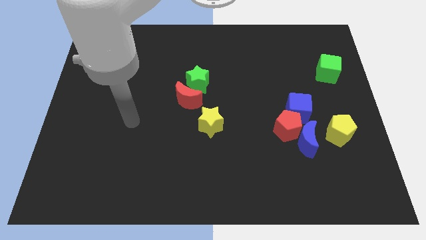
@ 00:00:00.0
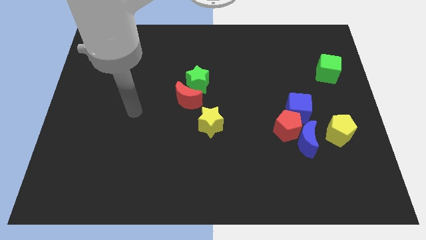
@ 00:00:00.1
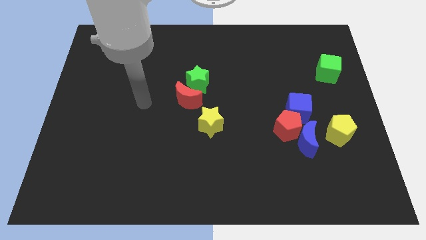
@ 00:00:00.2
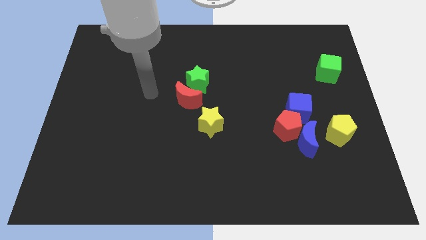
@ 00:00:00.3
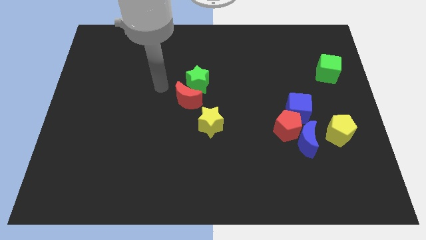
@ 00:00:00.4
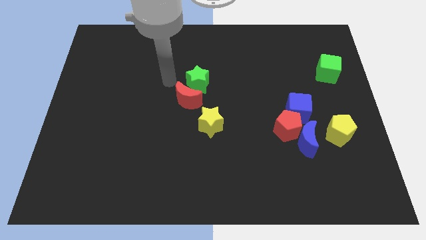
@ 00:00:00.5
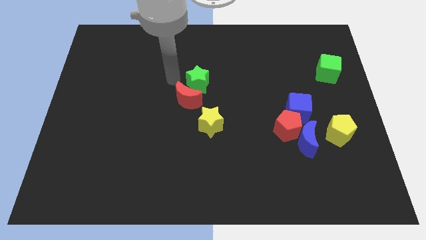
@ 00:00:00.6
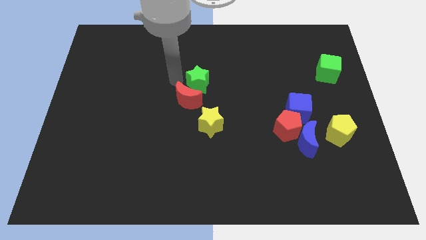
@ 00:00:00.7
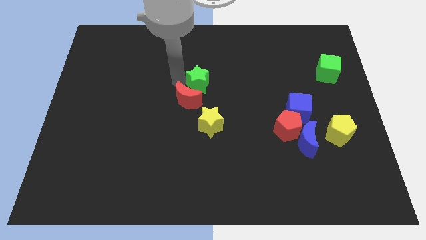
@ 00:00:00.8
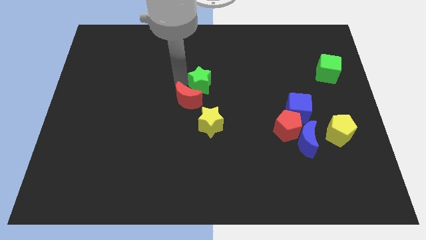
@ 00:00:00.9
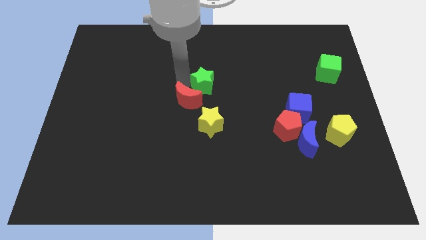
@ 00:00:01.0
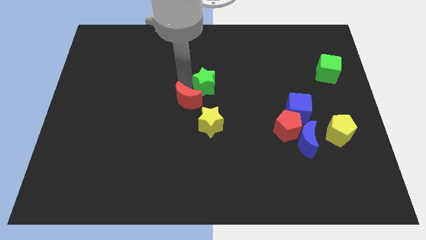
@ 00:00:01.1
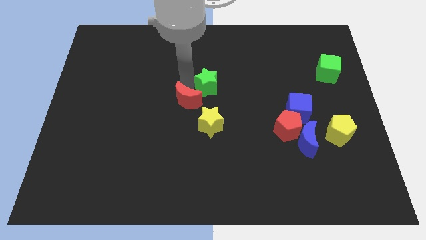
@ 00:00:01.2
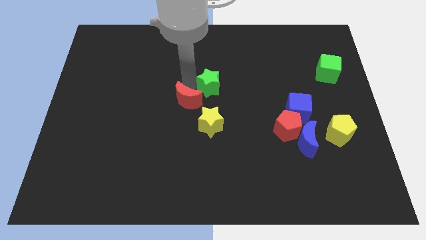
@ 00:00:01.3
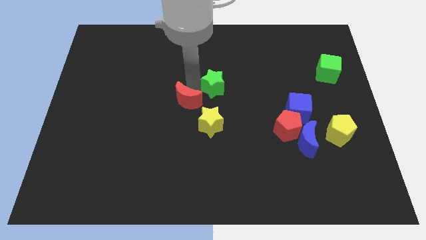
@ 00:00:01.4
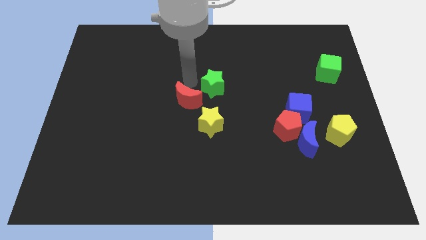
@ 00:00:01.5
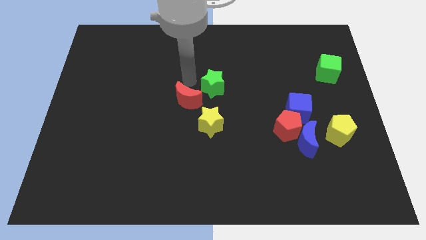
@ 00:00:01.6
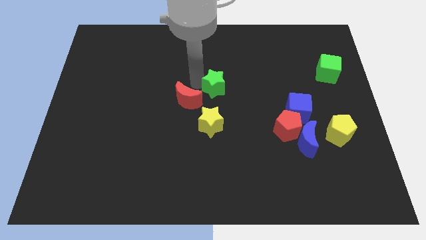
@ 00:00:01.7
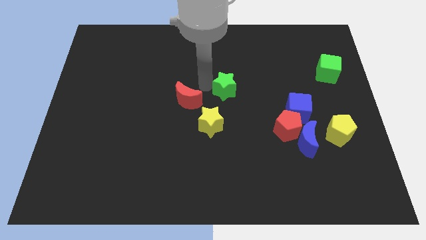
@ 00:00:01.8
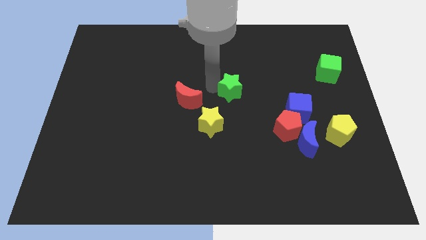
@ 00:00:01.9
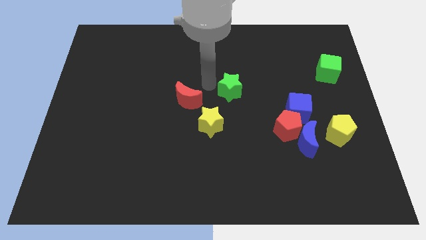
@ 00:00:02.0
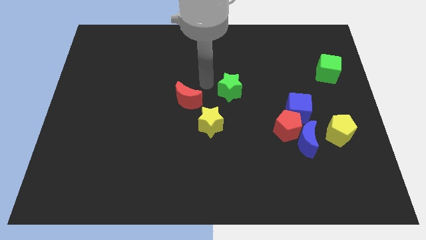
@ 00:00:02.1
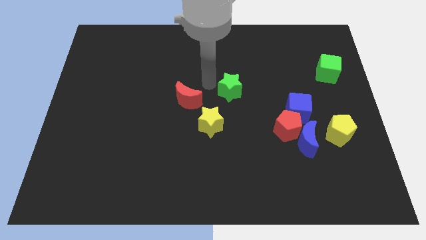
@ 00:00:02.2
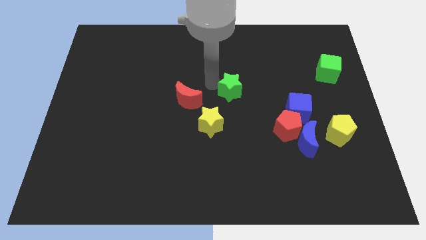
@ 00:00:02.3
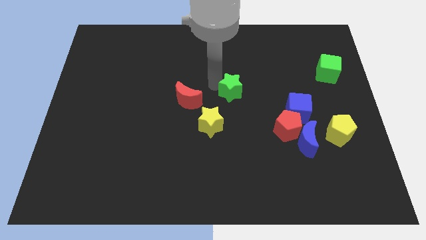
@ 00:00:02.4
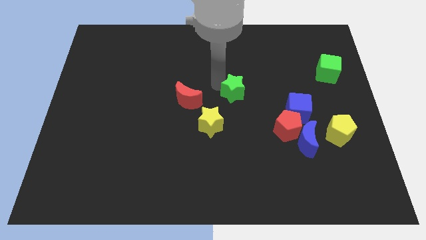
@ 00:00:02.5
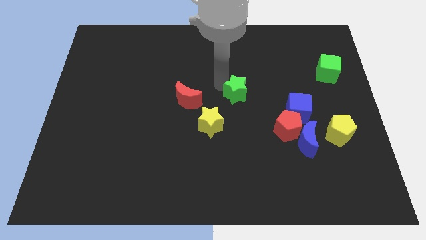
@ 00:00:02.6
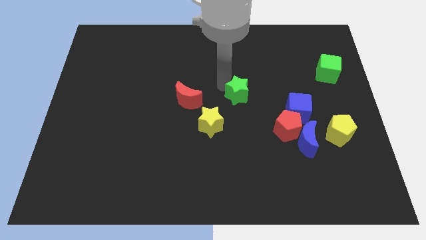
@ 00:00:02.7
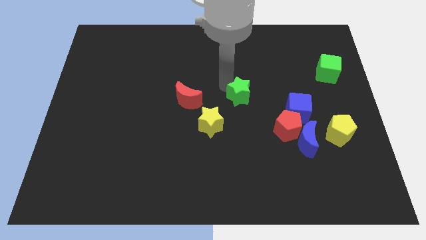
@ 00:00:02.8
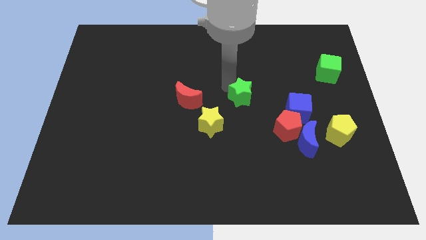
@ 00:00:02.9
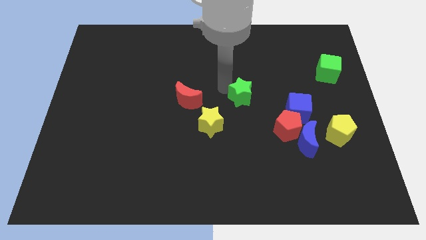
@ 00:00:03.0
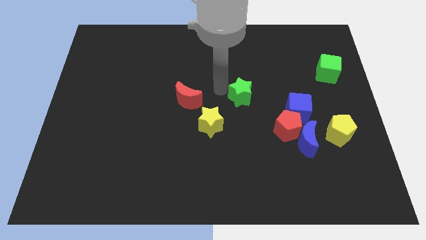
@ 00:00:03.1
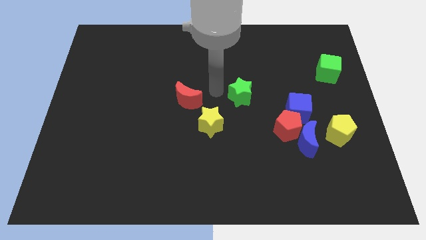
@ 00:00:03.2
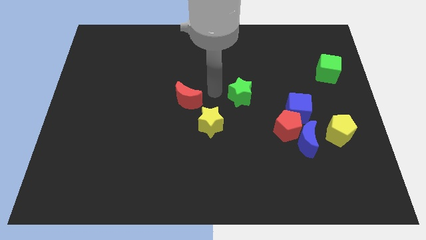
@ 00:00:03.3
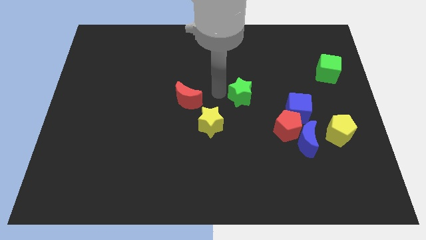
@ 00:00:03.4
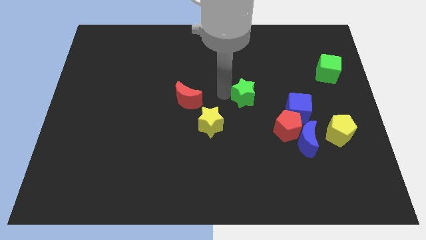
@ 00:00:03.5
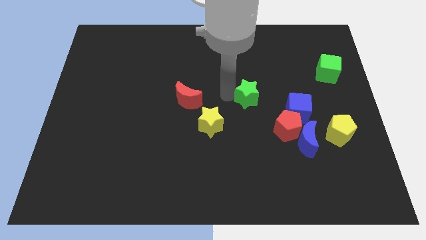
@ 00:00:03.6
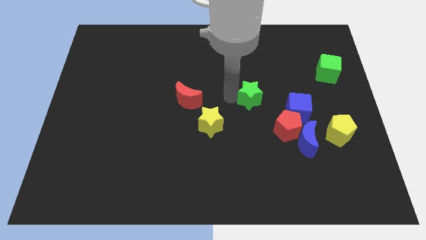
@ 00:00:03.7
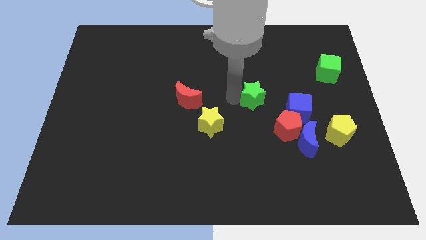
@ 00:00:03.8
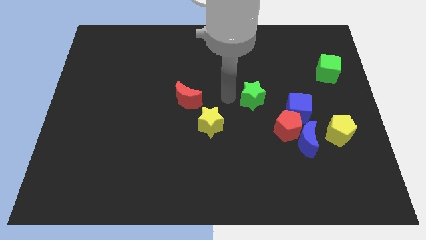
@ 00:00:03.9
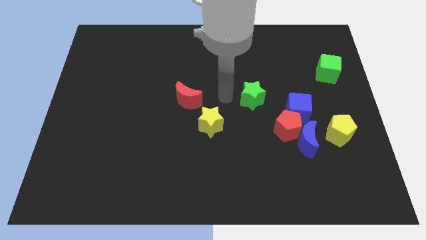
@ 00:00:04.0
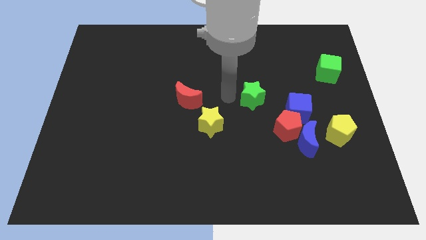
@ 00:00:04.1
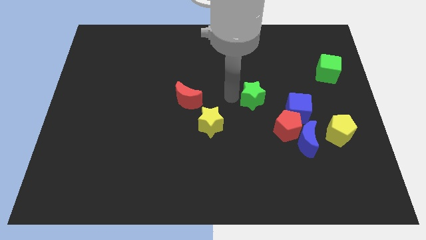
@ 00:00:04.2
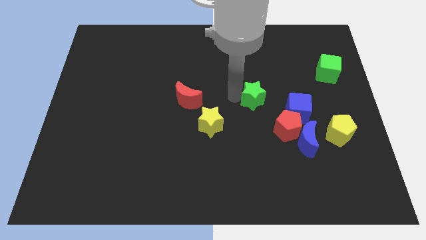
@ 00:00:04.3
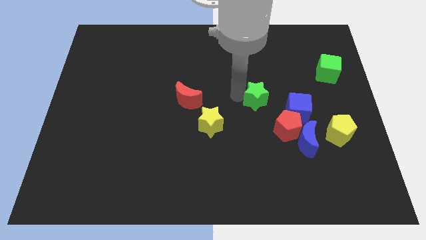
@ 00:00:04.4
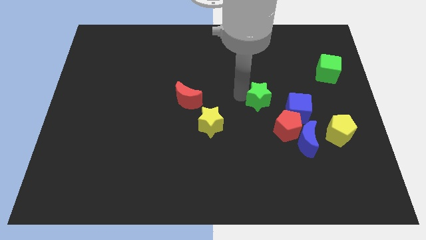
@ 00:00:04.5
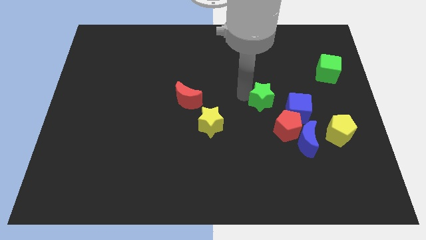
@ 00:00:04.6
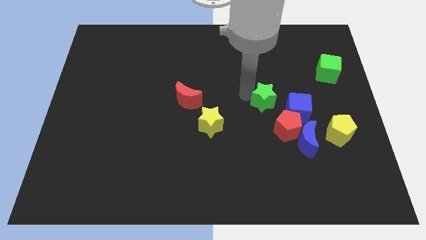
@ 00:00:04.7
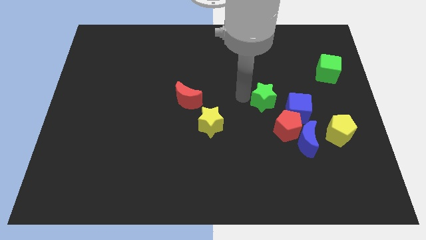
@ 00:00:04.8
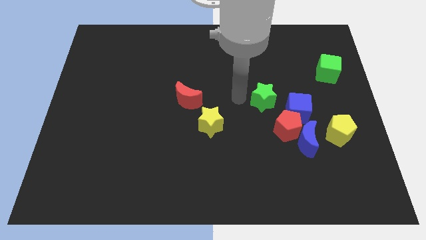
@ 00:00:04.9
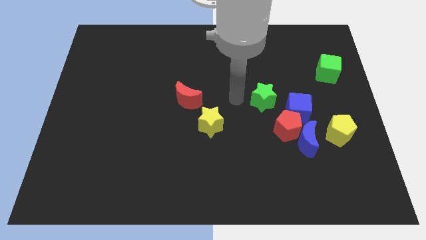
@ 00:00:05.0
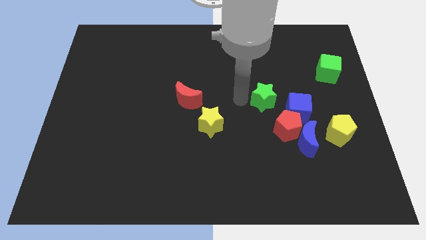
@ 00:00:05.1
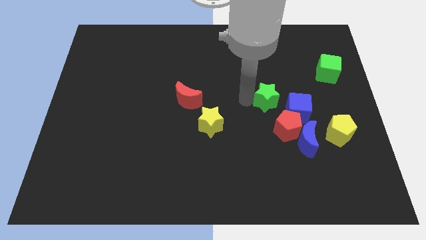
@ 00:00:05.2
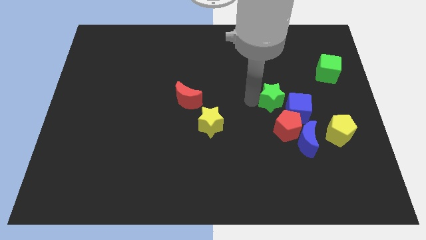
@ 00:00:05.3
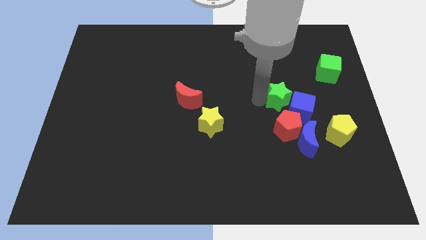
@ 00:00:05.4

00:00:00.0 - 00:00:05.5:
push the green star towards the blue cube

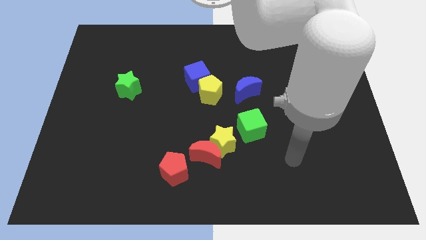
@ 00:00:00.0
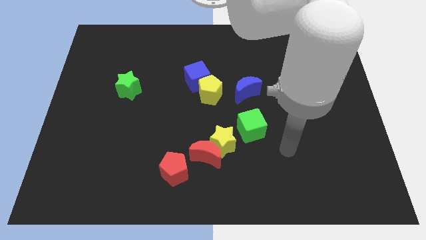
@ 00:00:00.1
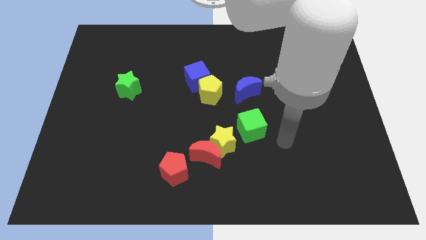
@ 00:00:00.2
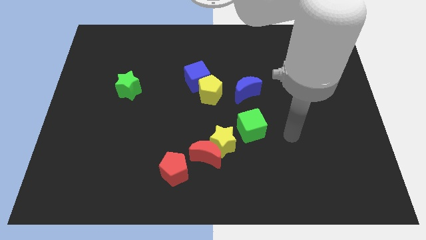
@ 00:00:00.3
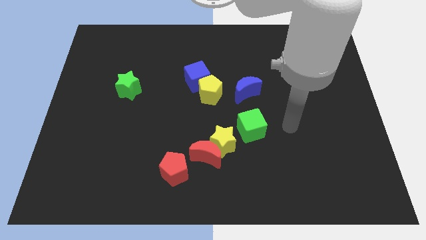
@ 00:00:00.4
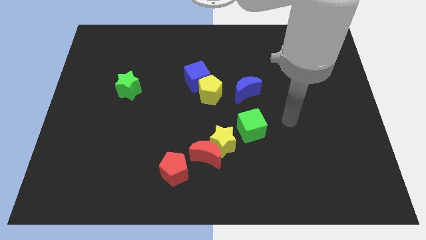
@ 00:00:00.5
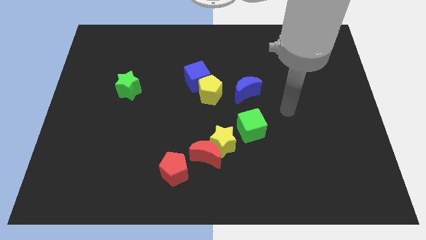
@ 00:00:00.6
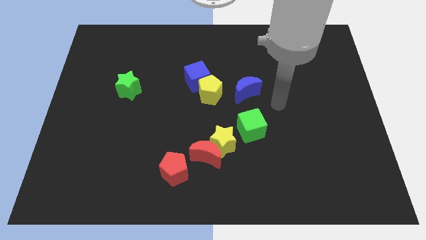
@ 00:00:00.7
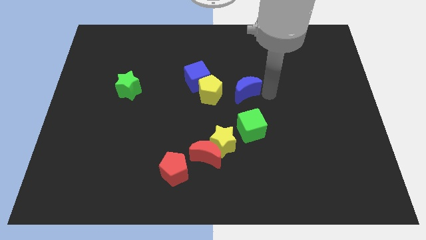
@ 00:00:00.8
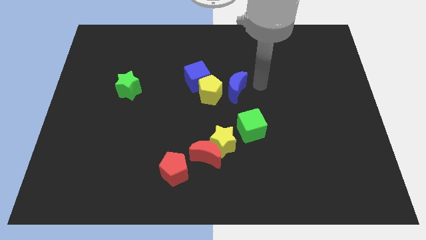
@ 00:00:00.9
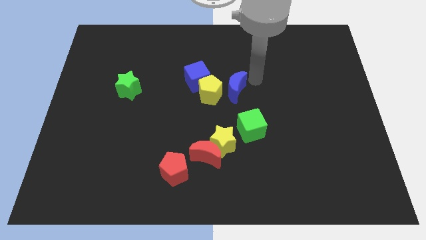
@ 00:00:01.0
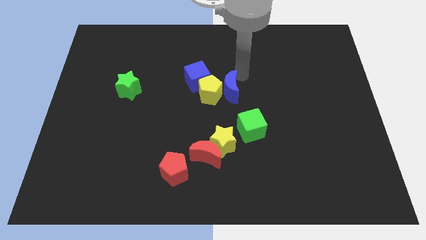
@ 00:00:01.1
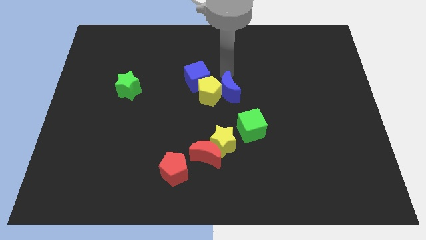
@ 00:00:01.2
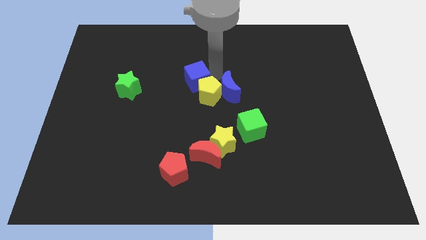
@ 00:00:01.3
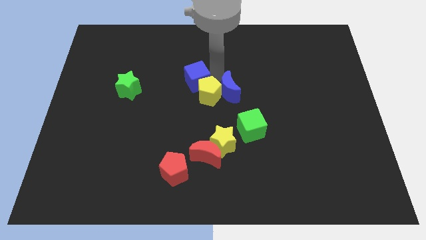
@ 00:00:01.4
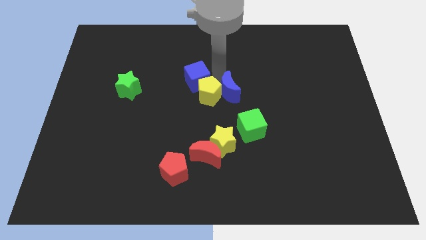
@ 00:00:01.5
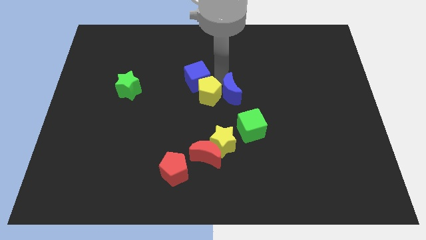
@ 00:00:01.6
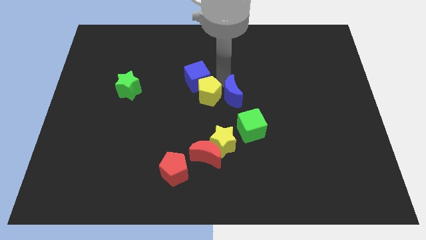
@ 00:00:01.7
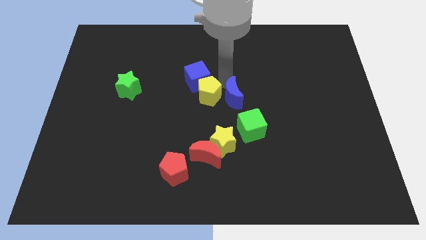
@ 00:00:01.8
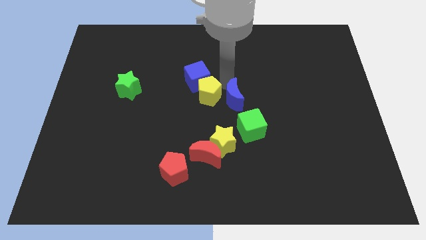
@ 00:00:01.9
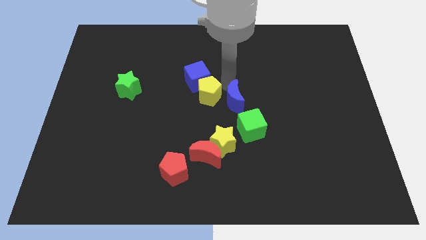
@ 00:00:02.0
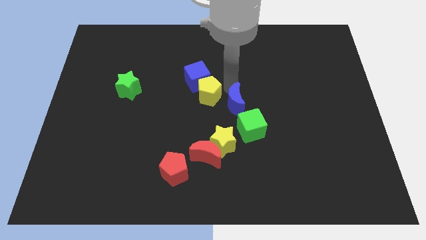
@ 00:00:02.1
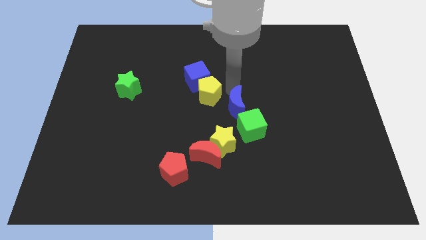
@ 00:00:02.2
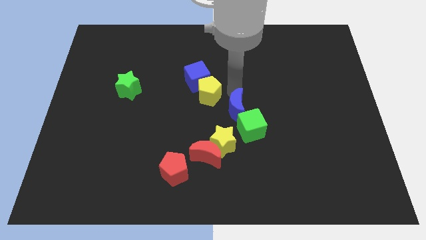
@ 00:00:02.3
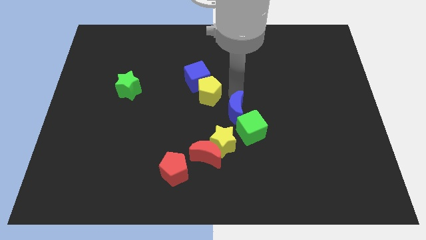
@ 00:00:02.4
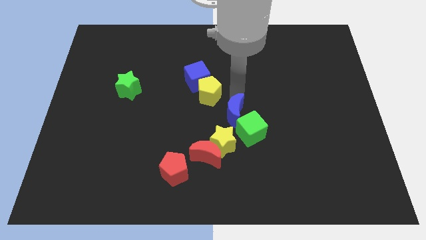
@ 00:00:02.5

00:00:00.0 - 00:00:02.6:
move the blue moon towards the green cube
